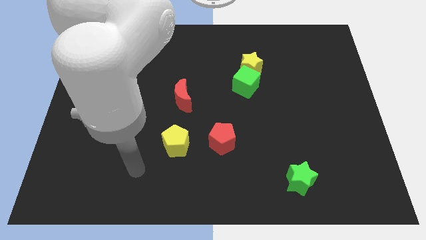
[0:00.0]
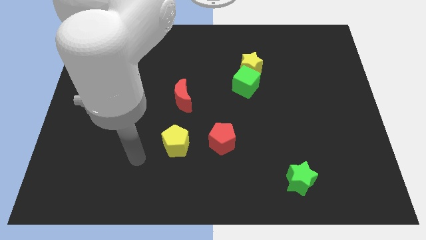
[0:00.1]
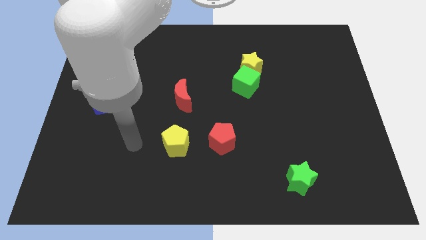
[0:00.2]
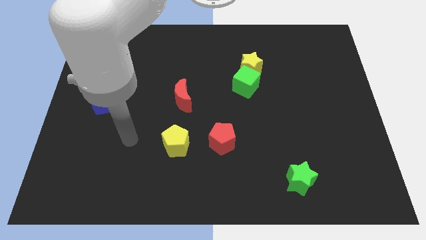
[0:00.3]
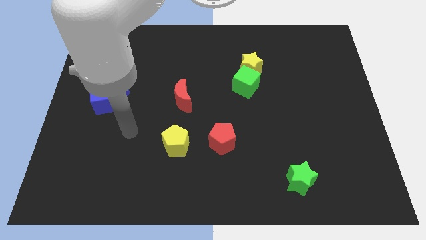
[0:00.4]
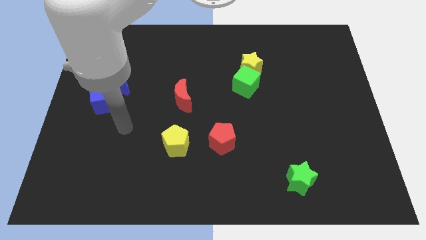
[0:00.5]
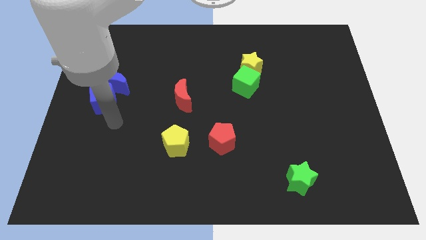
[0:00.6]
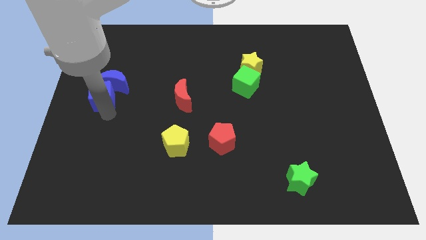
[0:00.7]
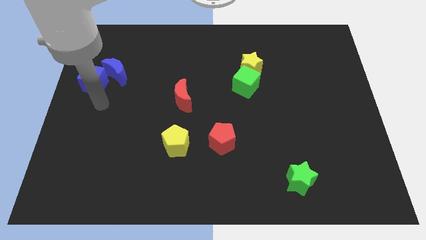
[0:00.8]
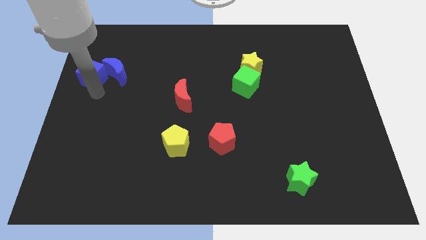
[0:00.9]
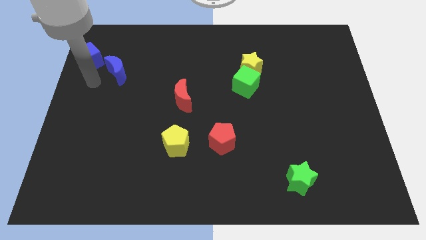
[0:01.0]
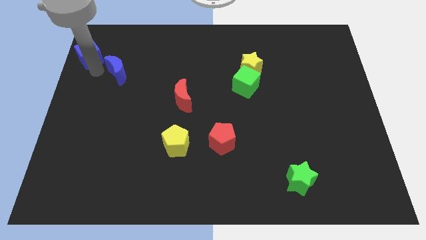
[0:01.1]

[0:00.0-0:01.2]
move the blue moon away from the blue cube

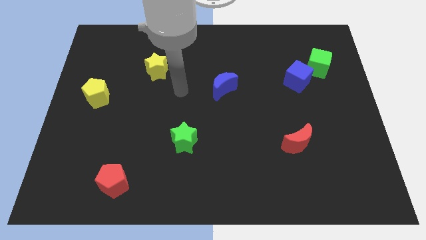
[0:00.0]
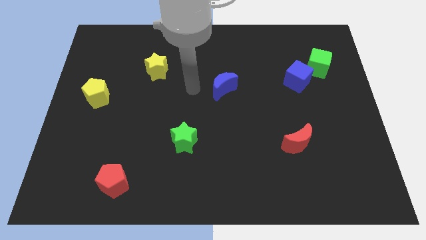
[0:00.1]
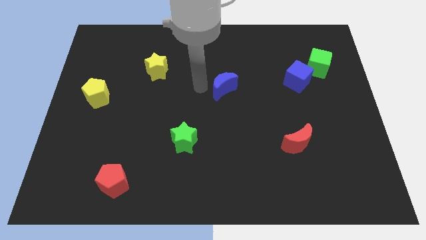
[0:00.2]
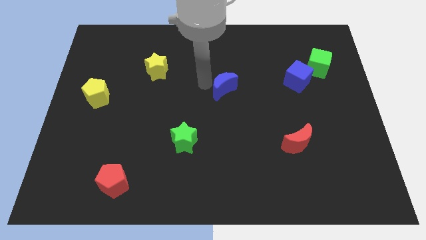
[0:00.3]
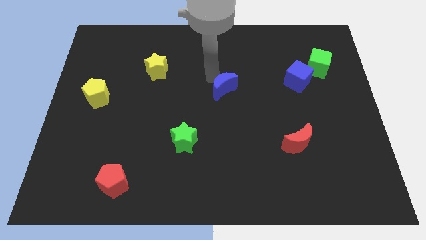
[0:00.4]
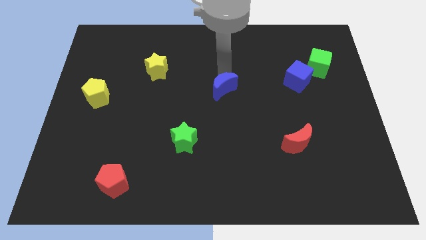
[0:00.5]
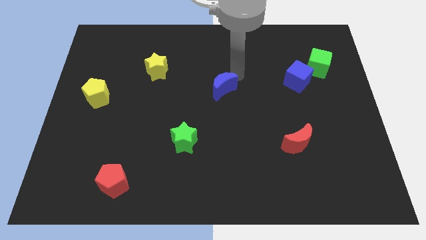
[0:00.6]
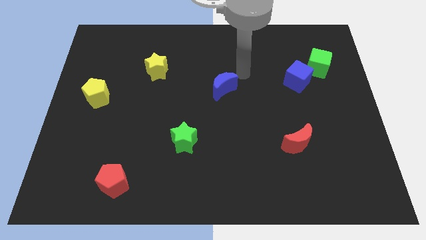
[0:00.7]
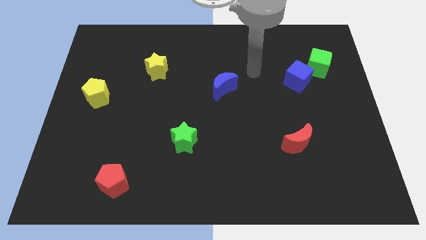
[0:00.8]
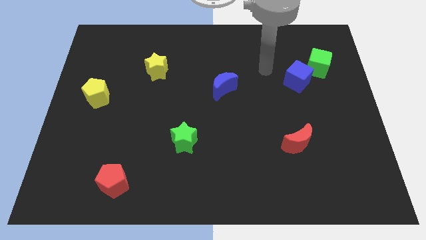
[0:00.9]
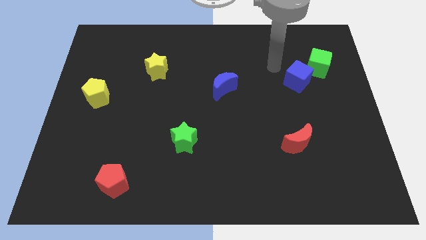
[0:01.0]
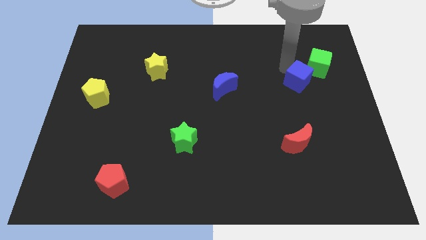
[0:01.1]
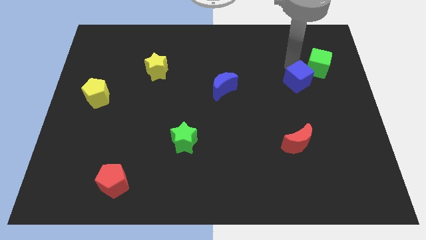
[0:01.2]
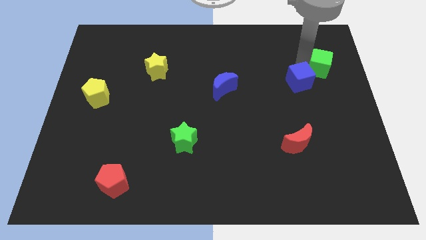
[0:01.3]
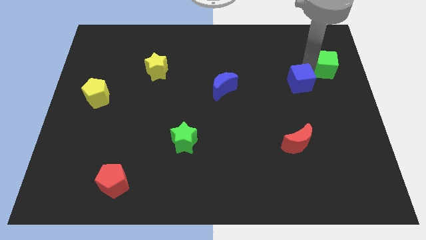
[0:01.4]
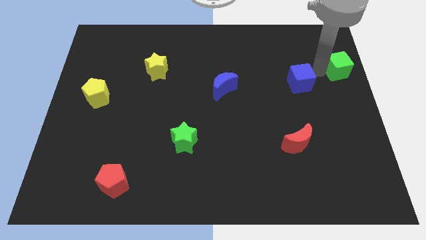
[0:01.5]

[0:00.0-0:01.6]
separate the blue cube from the green cube

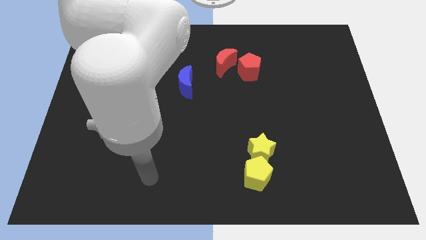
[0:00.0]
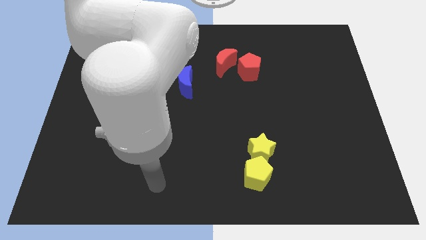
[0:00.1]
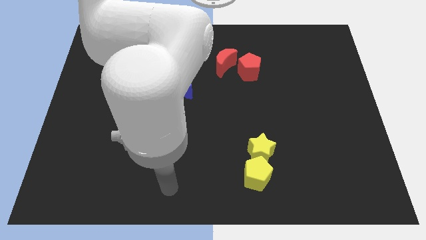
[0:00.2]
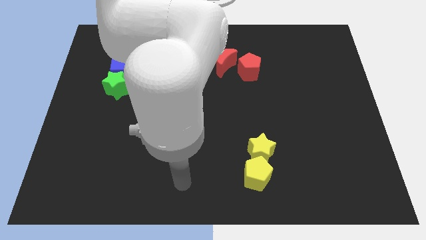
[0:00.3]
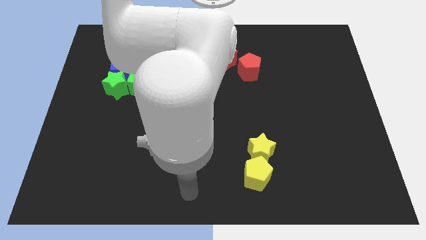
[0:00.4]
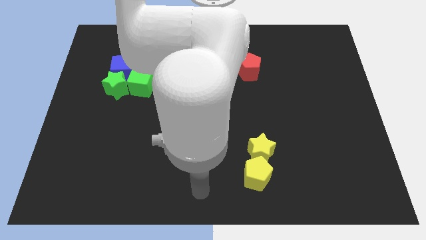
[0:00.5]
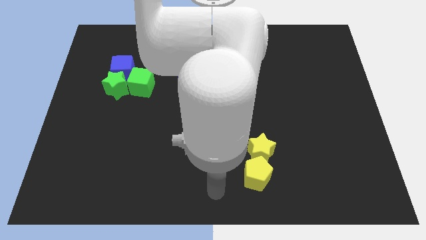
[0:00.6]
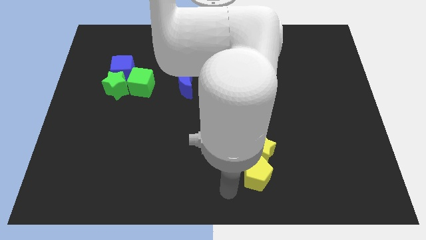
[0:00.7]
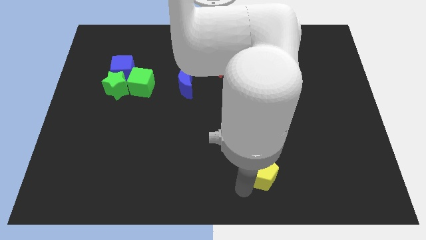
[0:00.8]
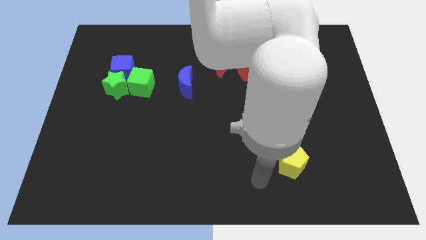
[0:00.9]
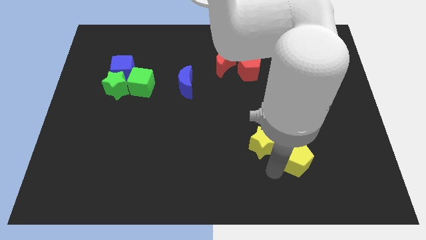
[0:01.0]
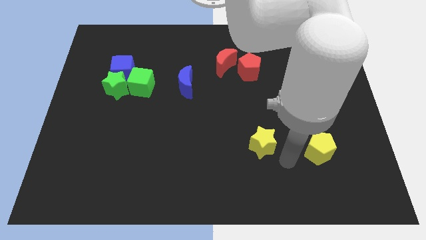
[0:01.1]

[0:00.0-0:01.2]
pull the yellow star apart from the yellow pentagon

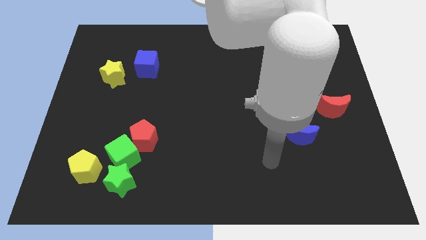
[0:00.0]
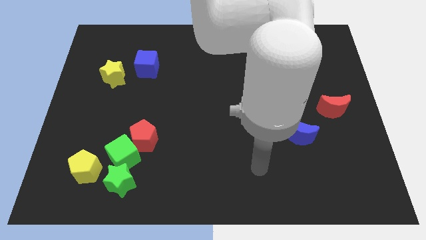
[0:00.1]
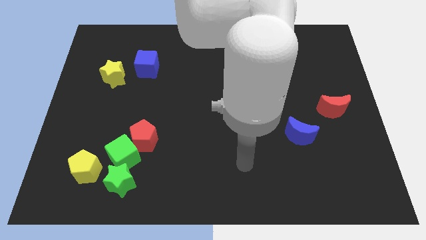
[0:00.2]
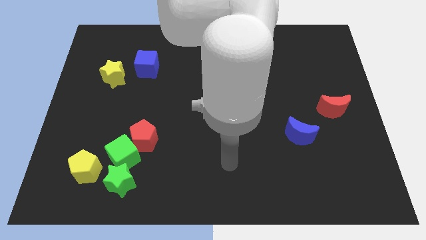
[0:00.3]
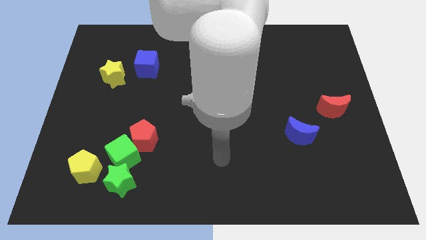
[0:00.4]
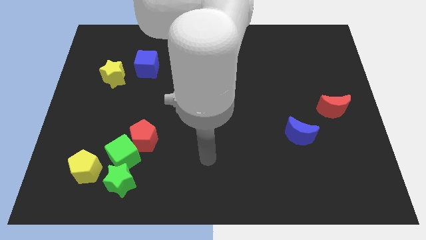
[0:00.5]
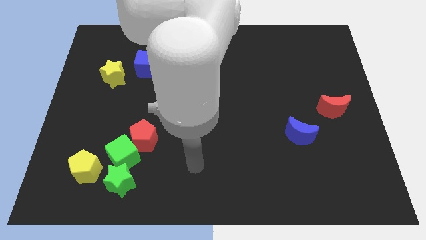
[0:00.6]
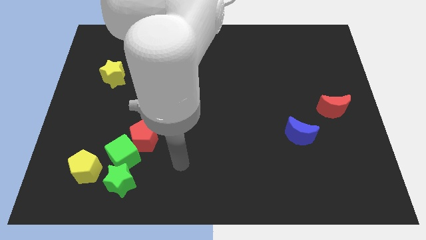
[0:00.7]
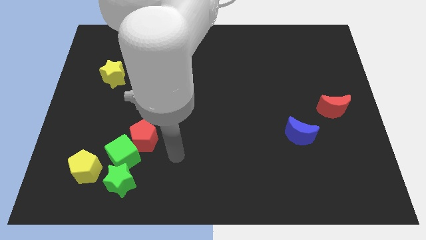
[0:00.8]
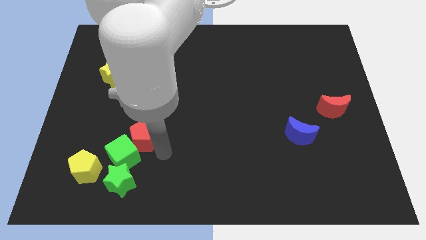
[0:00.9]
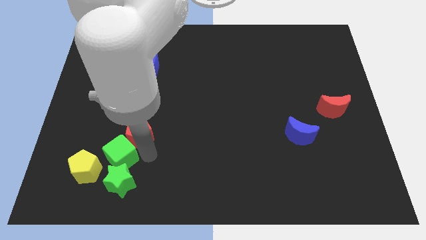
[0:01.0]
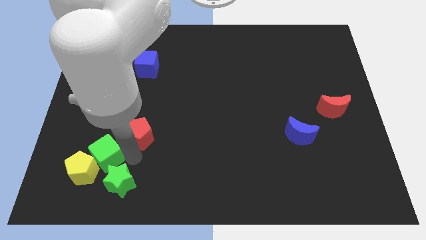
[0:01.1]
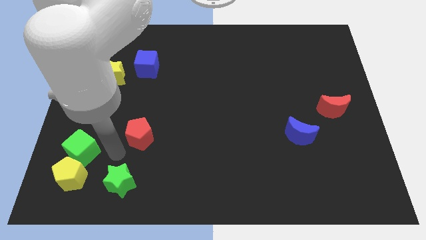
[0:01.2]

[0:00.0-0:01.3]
pull the red pentagon apart from the green cube

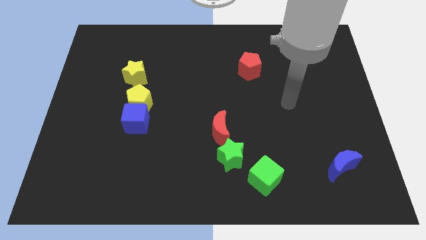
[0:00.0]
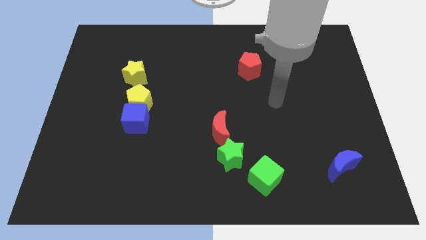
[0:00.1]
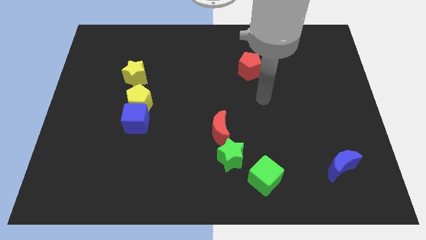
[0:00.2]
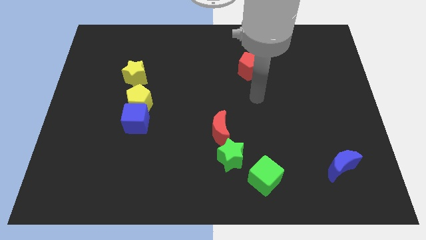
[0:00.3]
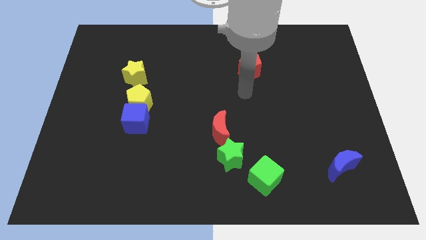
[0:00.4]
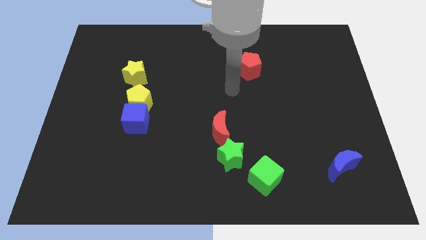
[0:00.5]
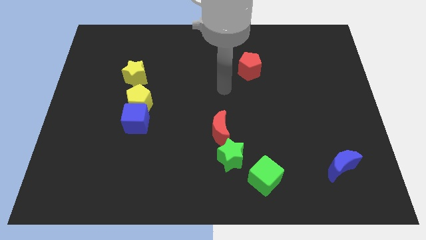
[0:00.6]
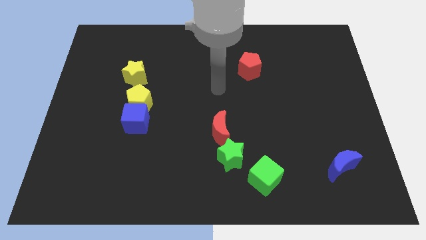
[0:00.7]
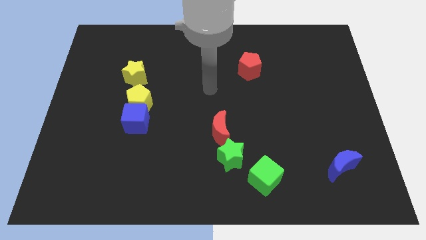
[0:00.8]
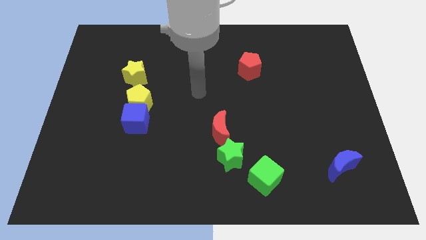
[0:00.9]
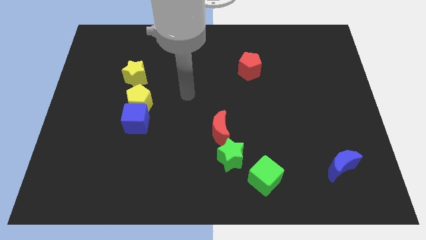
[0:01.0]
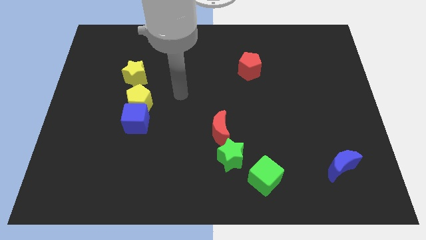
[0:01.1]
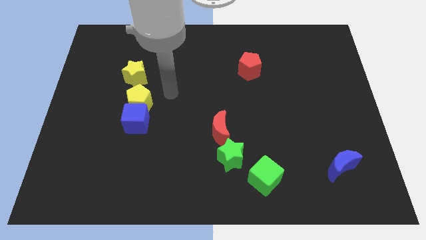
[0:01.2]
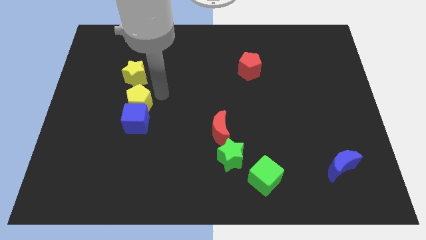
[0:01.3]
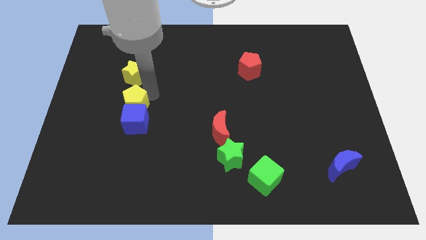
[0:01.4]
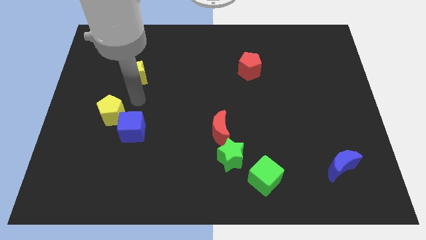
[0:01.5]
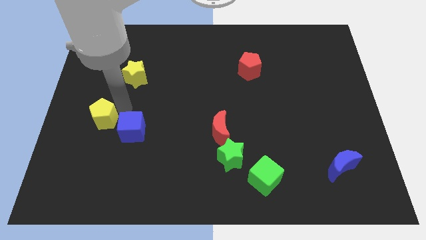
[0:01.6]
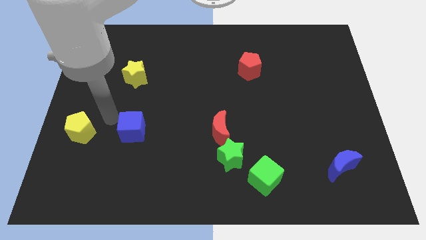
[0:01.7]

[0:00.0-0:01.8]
move the blue cube away from the yellow pentagon

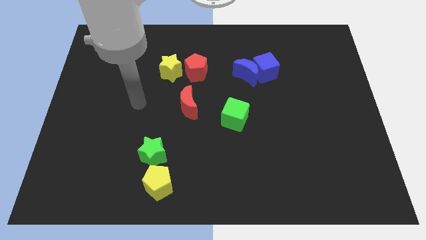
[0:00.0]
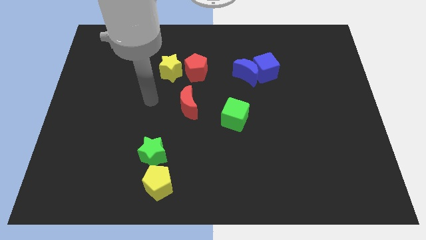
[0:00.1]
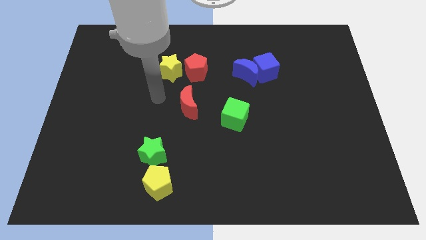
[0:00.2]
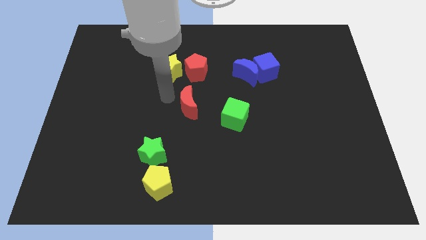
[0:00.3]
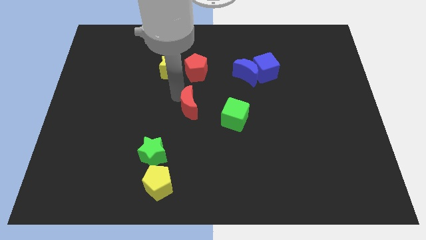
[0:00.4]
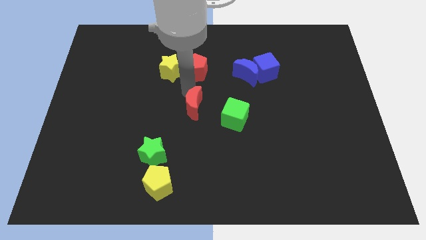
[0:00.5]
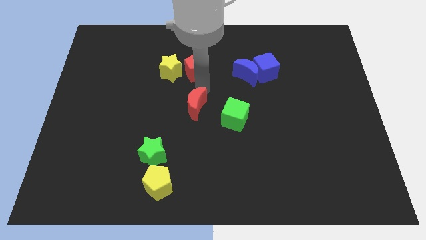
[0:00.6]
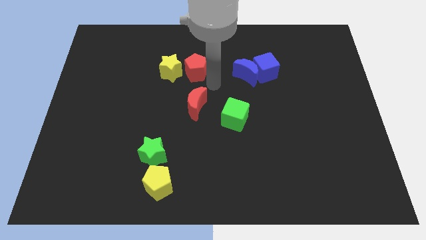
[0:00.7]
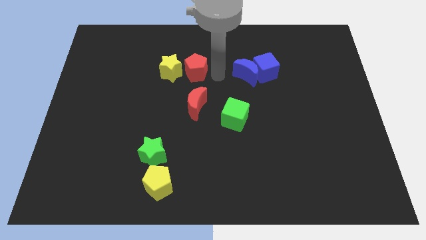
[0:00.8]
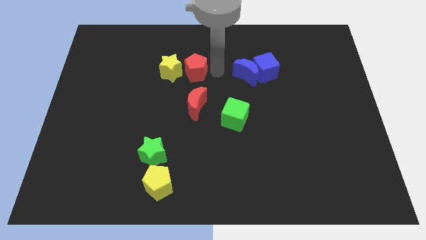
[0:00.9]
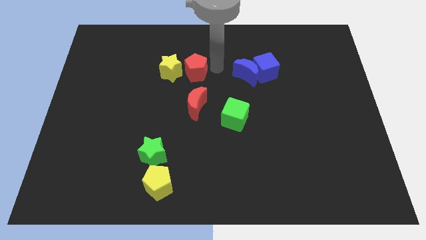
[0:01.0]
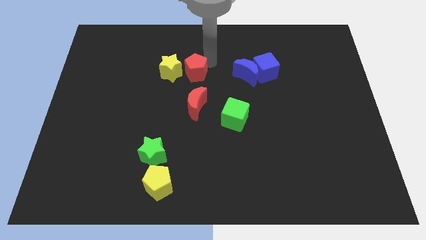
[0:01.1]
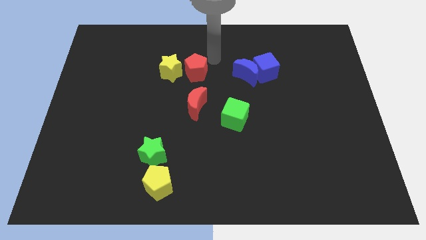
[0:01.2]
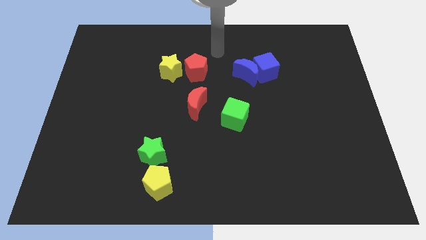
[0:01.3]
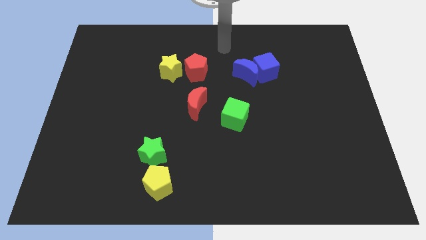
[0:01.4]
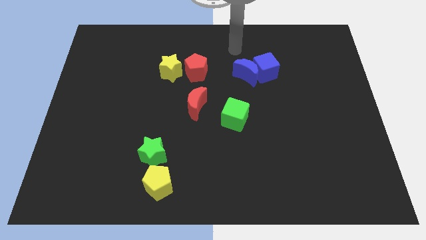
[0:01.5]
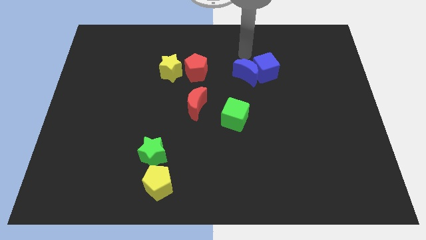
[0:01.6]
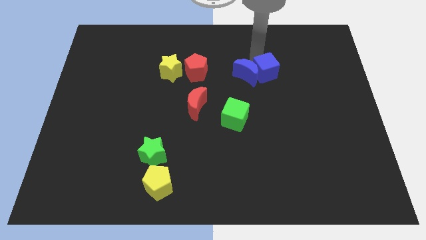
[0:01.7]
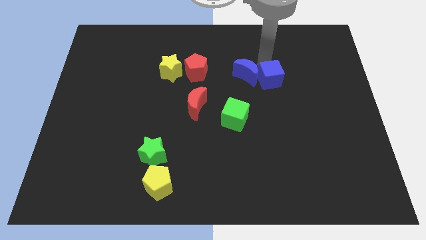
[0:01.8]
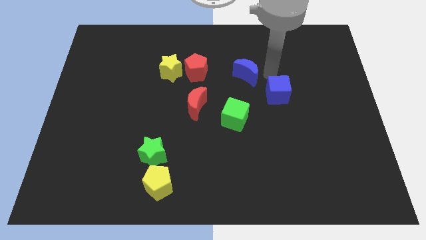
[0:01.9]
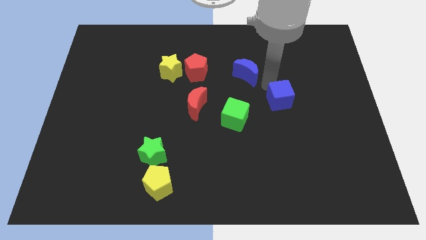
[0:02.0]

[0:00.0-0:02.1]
separate the blue moon from the blue cube
